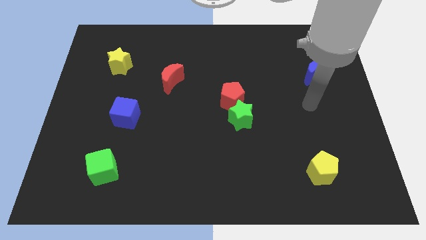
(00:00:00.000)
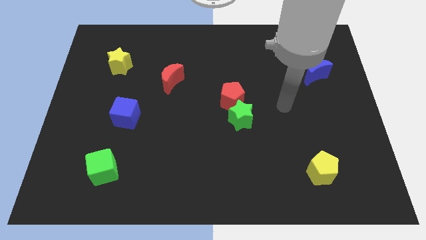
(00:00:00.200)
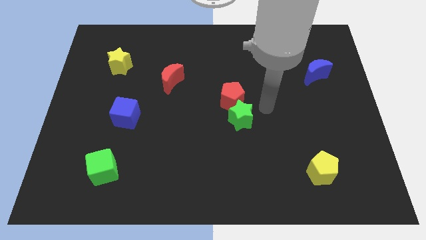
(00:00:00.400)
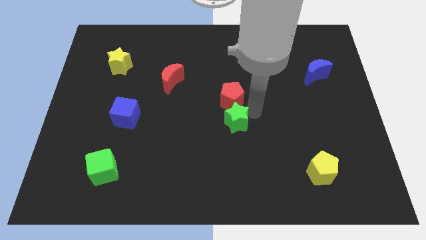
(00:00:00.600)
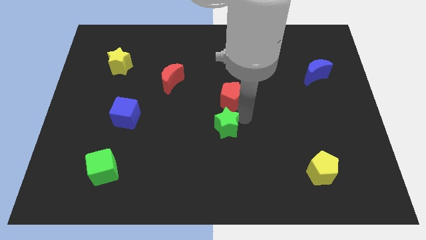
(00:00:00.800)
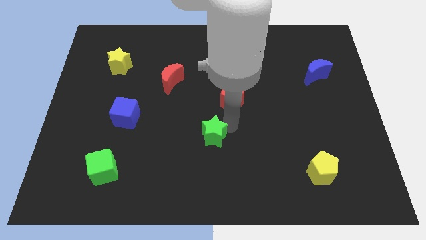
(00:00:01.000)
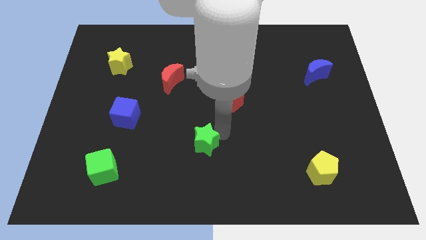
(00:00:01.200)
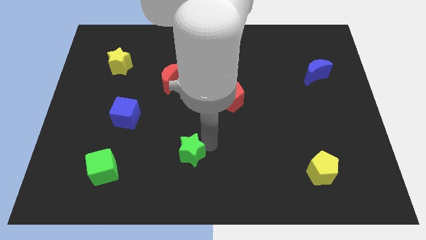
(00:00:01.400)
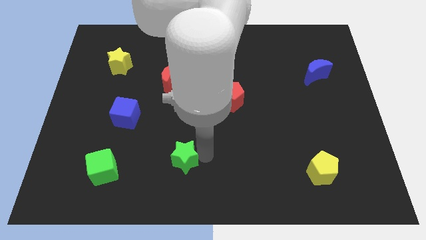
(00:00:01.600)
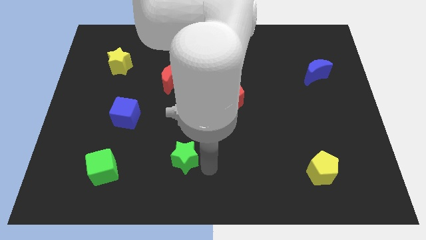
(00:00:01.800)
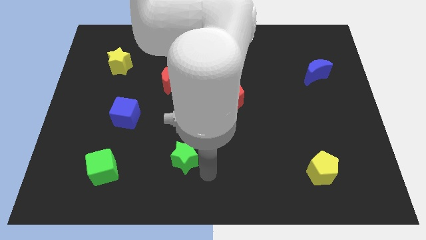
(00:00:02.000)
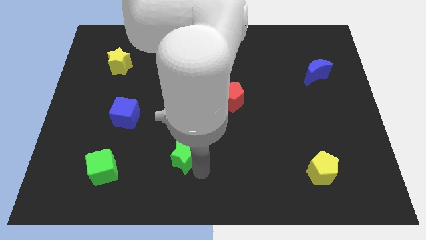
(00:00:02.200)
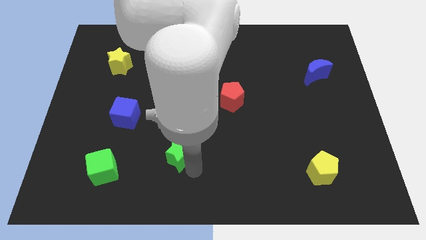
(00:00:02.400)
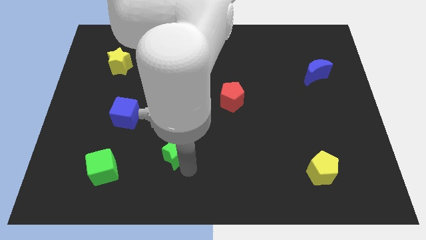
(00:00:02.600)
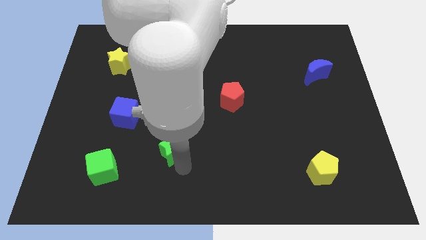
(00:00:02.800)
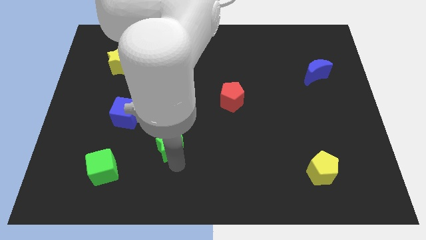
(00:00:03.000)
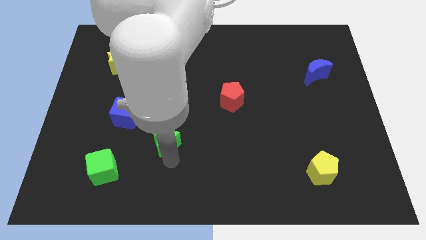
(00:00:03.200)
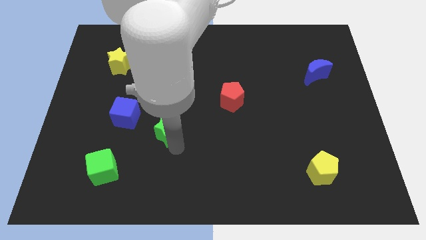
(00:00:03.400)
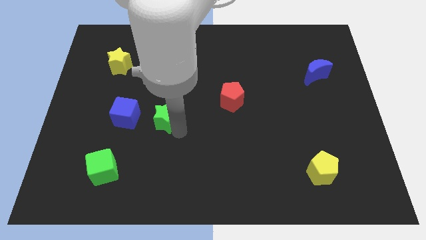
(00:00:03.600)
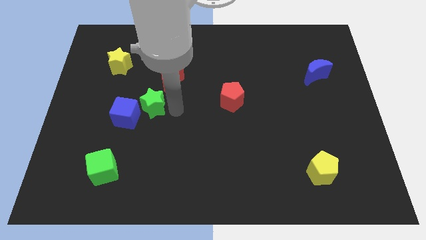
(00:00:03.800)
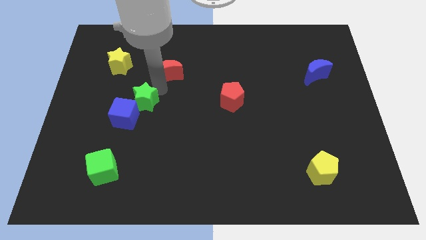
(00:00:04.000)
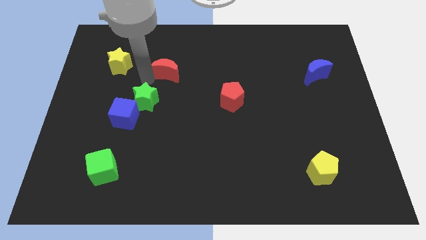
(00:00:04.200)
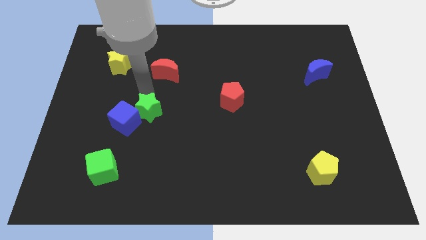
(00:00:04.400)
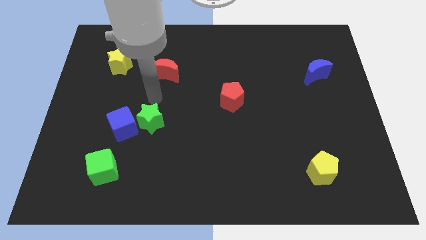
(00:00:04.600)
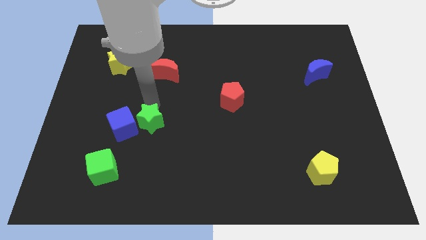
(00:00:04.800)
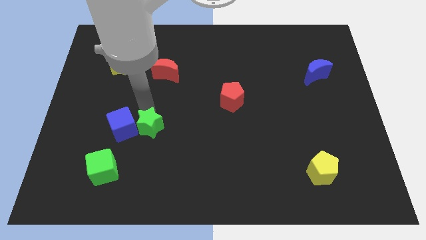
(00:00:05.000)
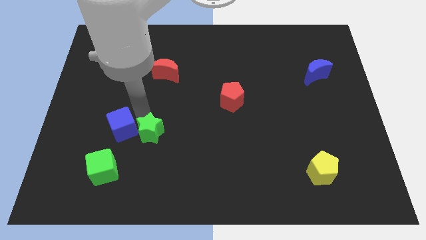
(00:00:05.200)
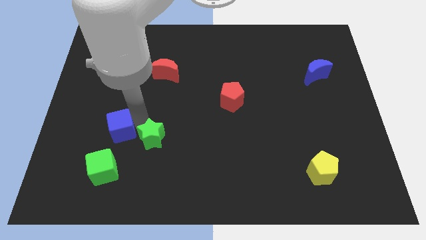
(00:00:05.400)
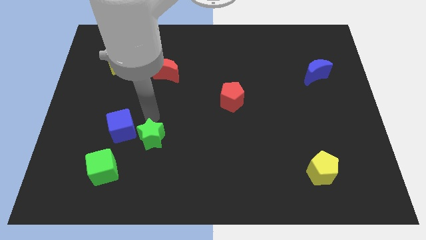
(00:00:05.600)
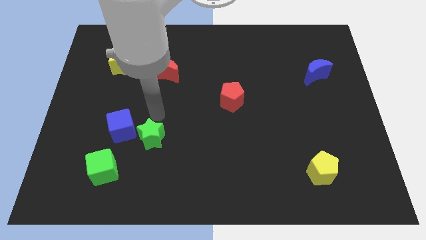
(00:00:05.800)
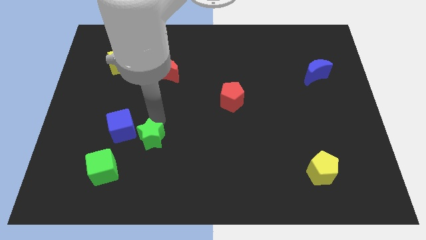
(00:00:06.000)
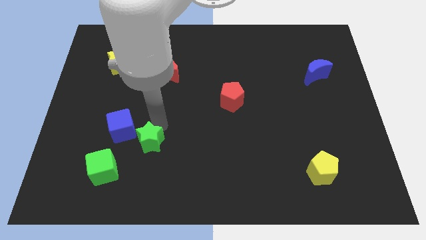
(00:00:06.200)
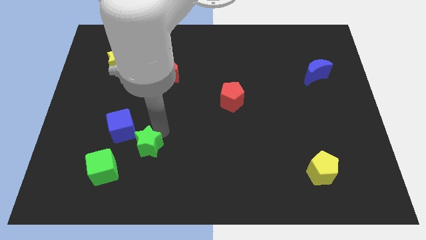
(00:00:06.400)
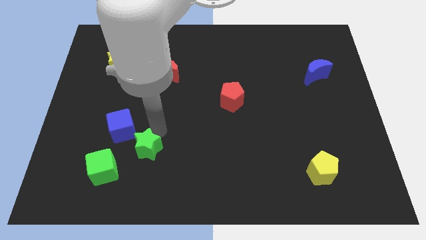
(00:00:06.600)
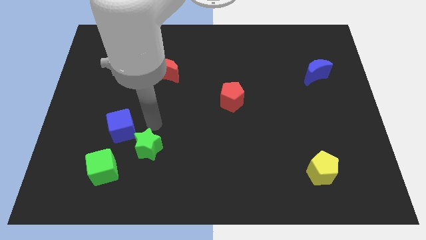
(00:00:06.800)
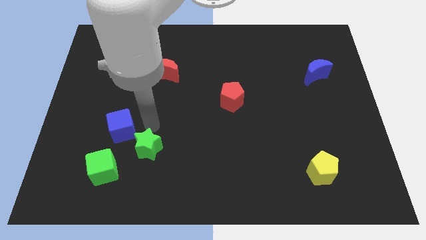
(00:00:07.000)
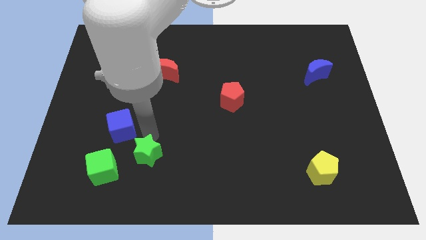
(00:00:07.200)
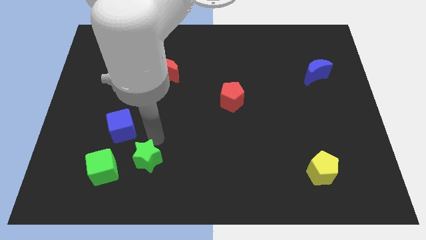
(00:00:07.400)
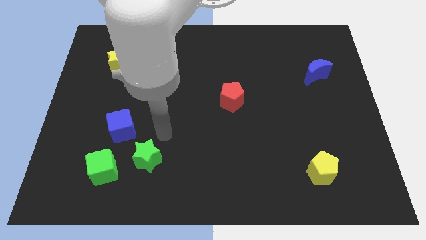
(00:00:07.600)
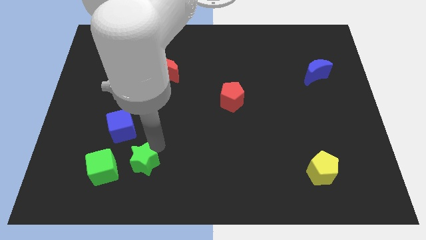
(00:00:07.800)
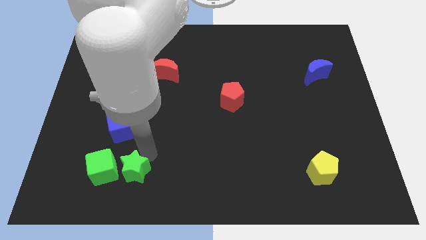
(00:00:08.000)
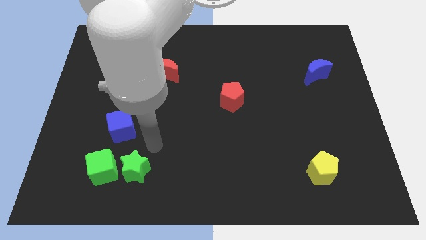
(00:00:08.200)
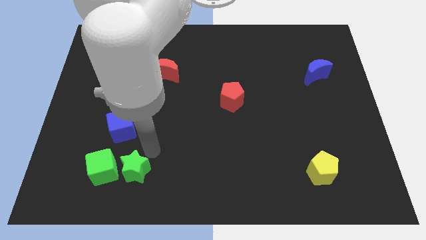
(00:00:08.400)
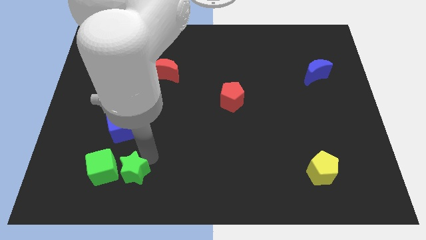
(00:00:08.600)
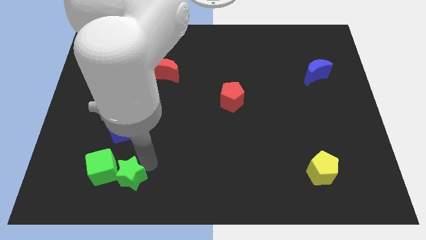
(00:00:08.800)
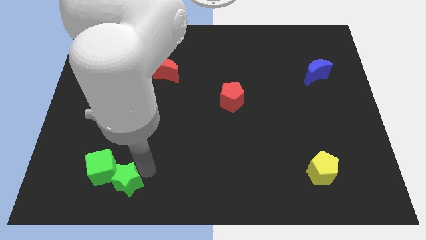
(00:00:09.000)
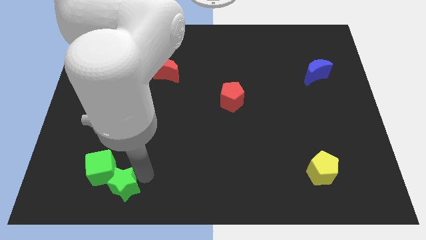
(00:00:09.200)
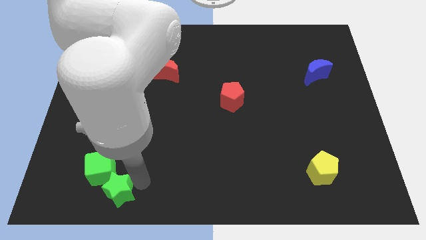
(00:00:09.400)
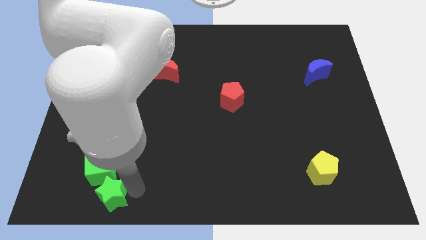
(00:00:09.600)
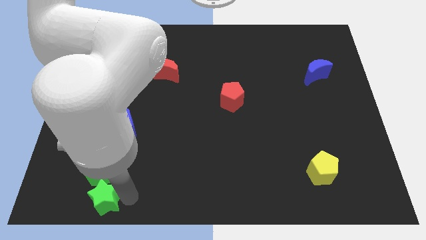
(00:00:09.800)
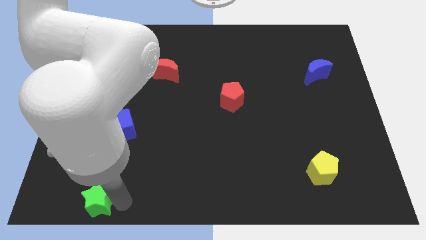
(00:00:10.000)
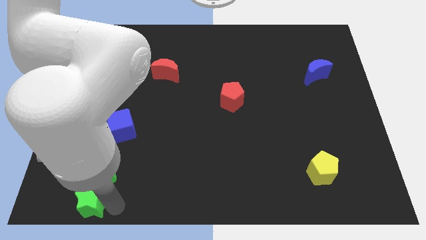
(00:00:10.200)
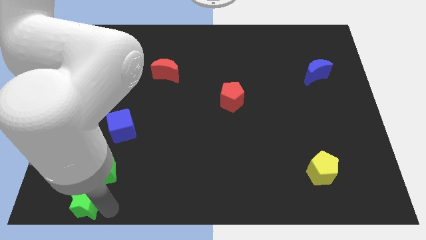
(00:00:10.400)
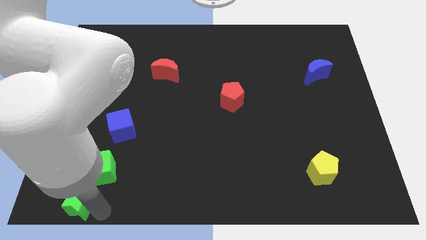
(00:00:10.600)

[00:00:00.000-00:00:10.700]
push the green star to the bottom left corner

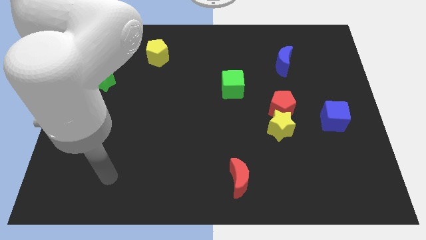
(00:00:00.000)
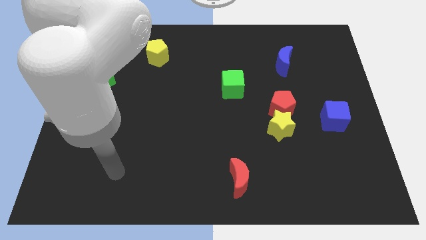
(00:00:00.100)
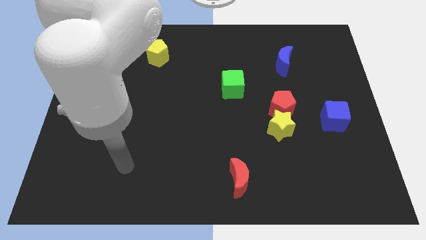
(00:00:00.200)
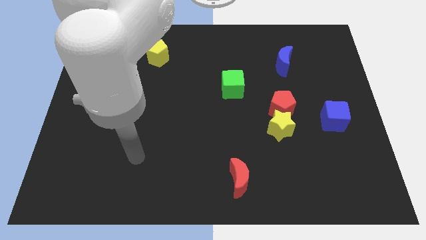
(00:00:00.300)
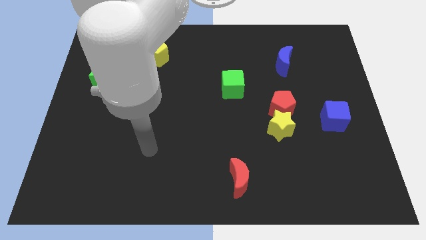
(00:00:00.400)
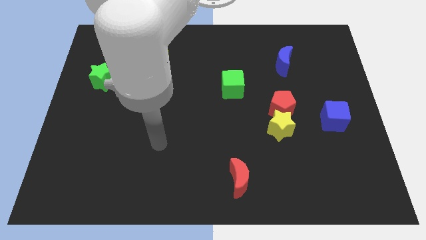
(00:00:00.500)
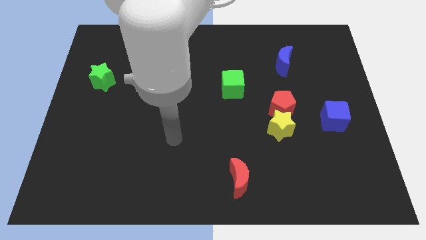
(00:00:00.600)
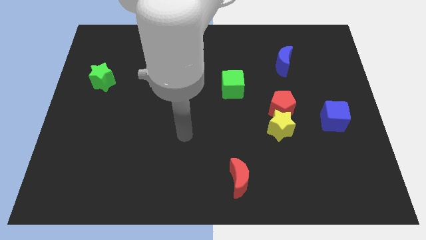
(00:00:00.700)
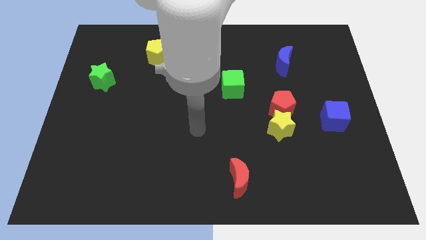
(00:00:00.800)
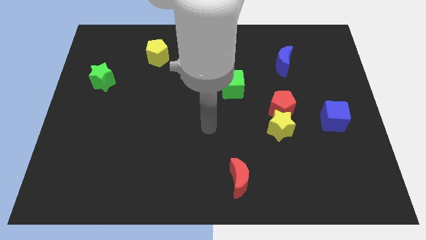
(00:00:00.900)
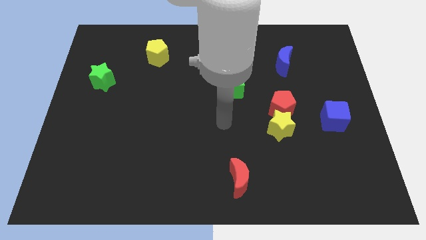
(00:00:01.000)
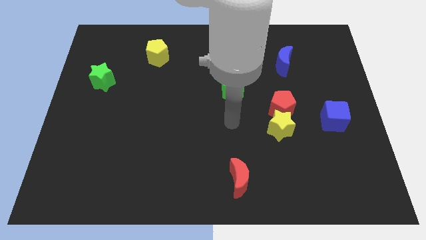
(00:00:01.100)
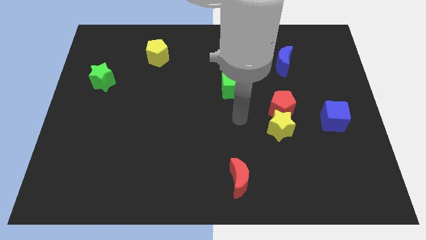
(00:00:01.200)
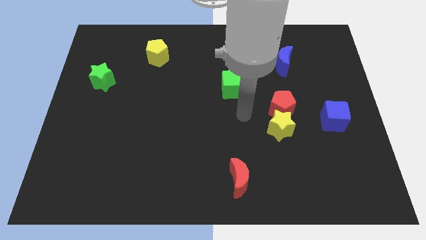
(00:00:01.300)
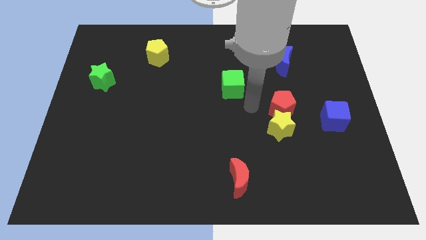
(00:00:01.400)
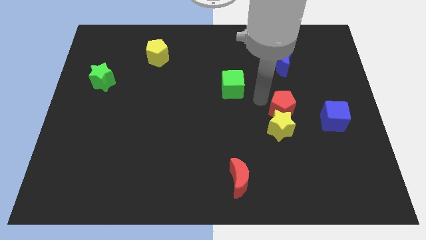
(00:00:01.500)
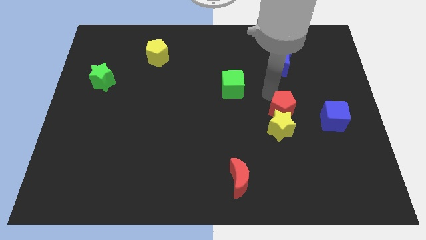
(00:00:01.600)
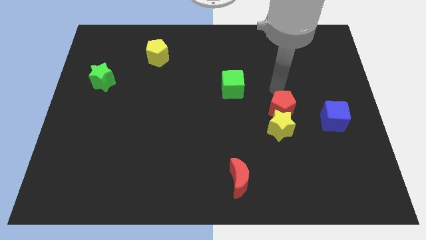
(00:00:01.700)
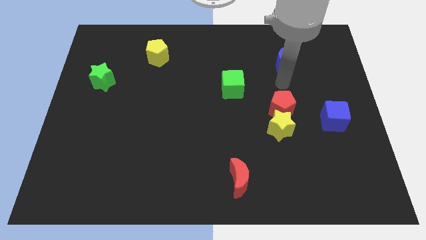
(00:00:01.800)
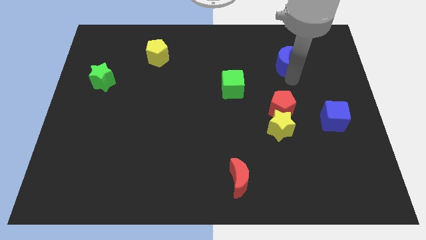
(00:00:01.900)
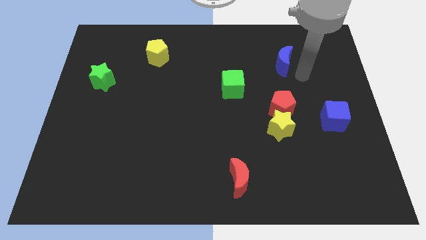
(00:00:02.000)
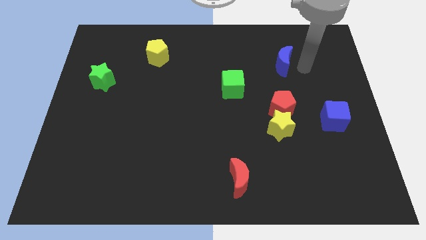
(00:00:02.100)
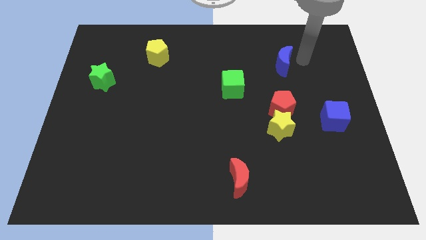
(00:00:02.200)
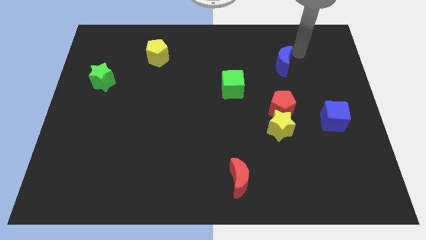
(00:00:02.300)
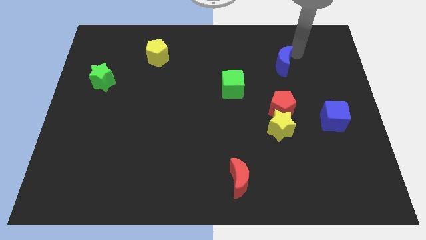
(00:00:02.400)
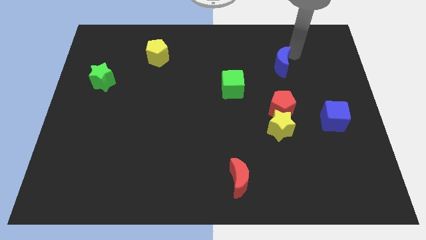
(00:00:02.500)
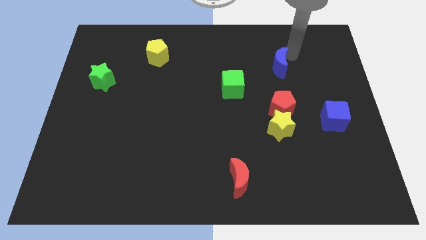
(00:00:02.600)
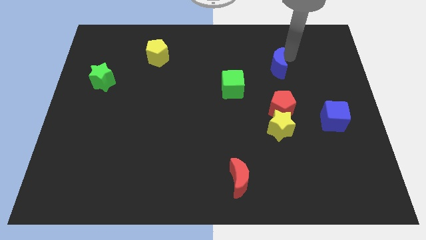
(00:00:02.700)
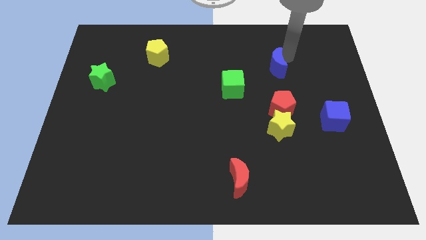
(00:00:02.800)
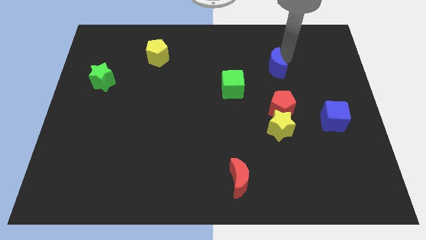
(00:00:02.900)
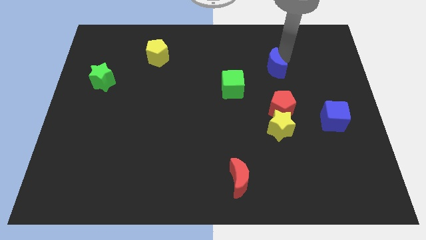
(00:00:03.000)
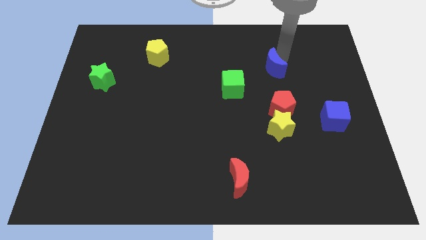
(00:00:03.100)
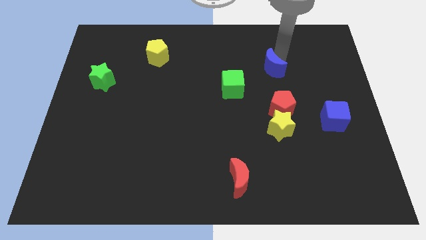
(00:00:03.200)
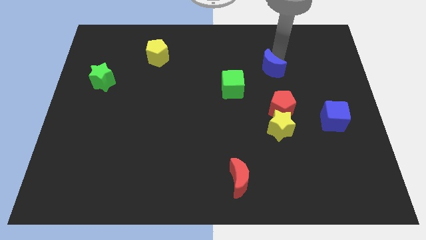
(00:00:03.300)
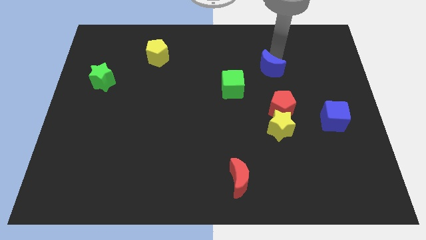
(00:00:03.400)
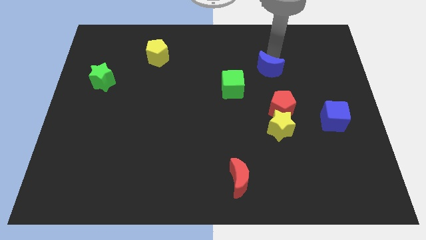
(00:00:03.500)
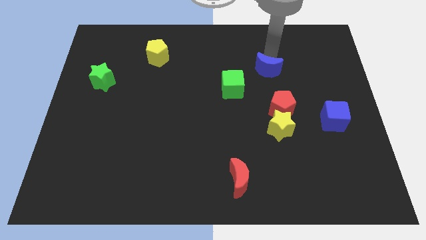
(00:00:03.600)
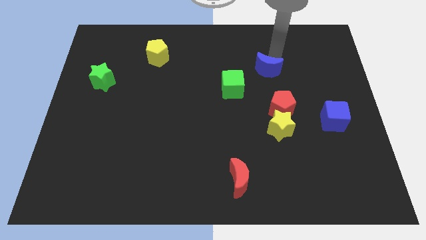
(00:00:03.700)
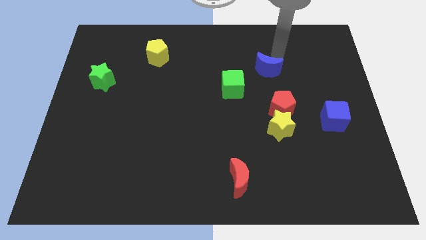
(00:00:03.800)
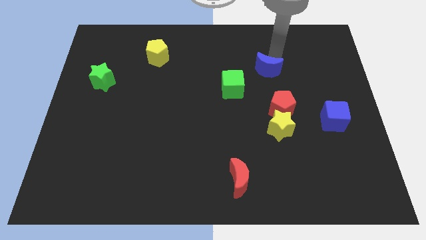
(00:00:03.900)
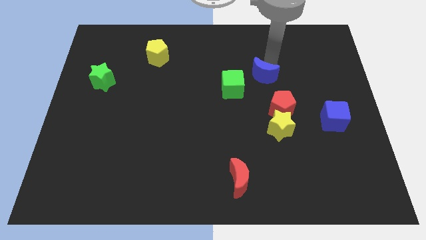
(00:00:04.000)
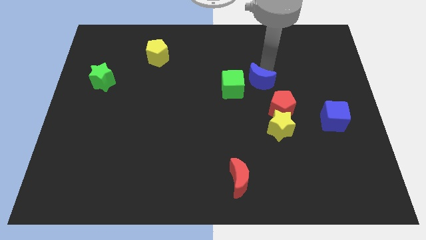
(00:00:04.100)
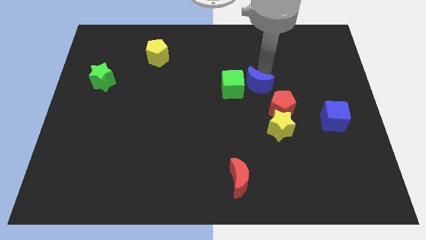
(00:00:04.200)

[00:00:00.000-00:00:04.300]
slide the blue moon to the center
